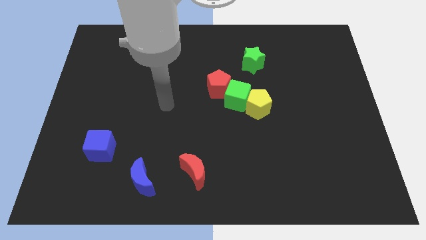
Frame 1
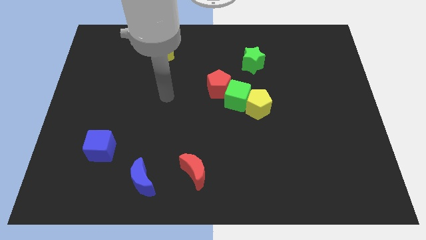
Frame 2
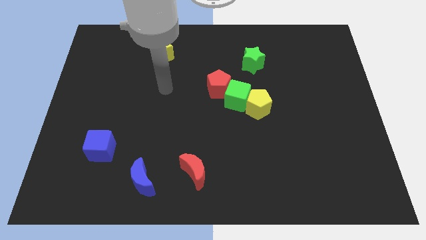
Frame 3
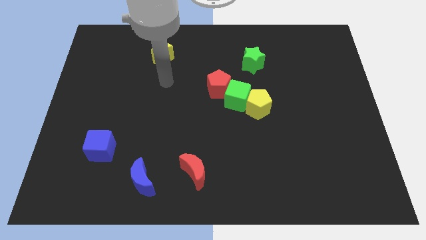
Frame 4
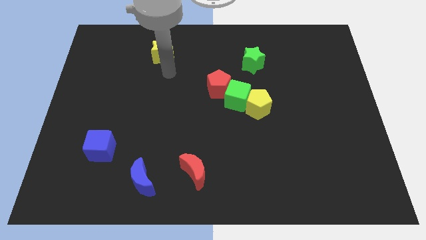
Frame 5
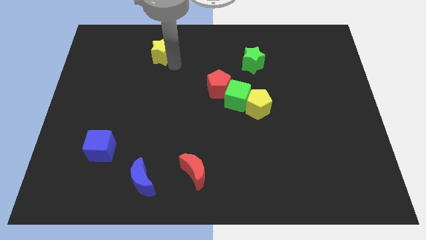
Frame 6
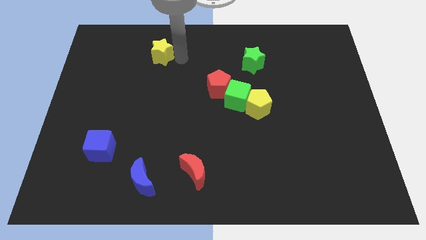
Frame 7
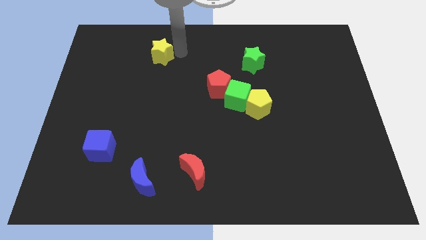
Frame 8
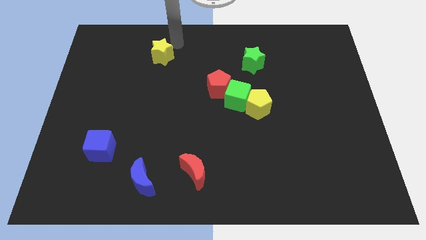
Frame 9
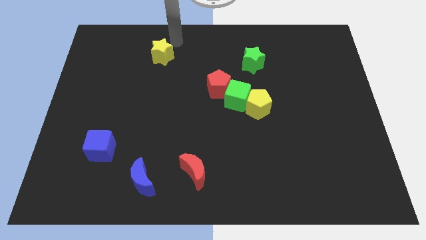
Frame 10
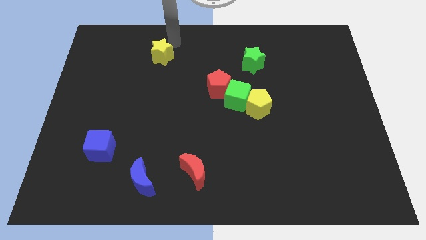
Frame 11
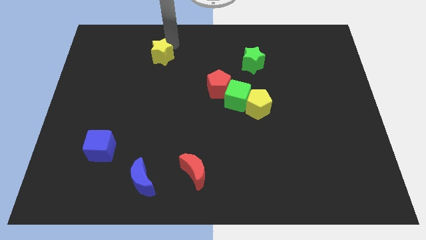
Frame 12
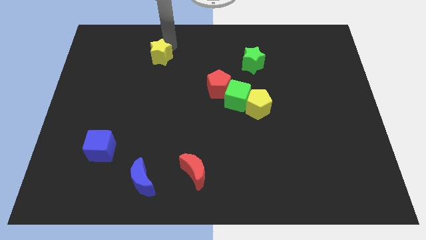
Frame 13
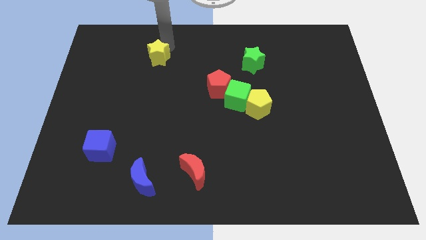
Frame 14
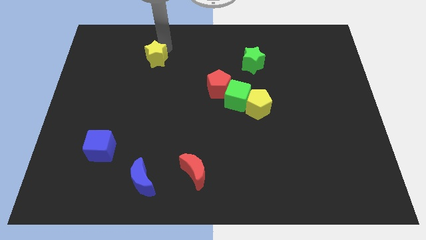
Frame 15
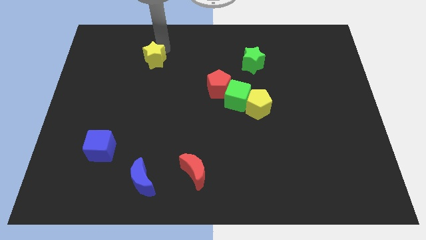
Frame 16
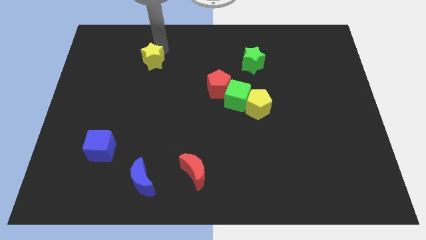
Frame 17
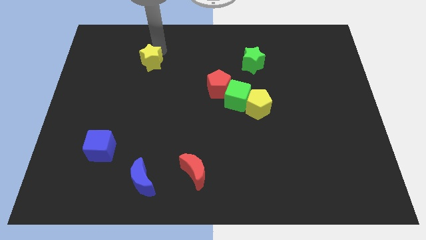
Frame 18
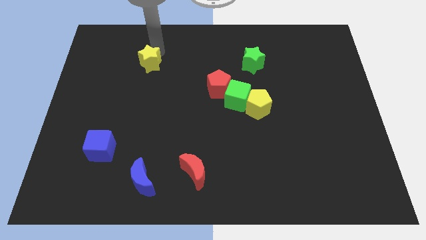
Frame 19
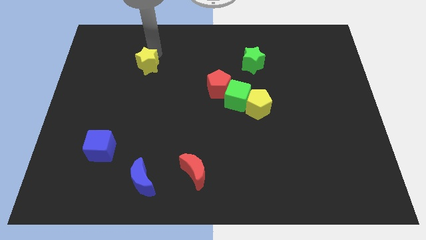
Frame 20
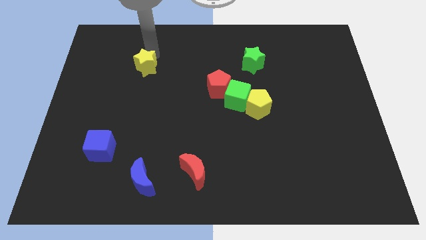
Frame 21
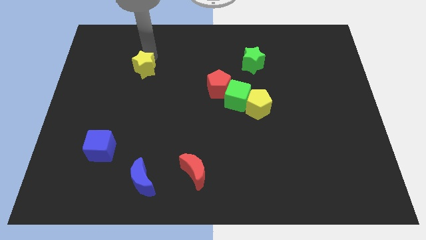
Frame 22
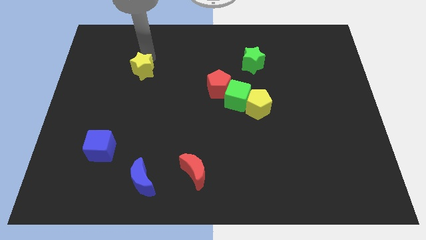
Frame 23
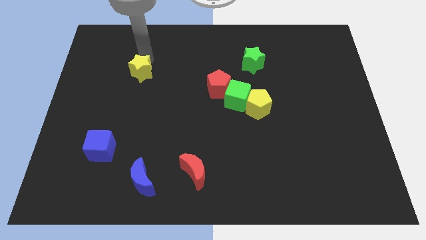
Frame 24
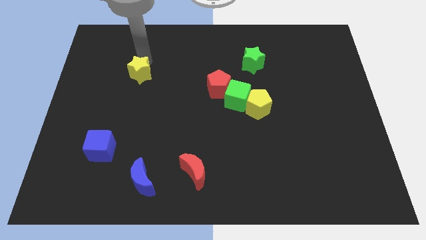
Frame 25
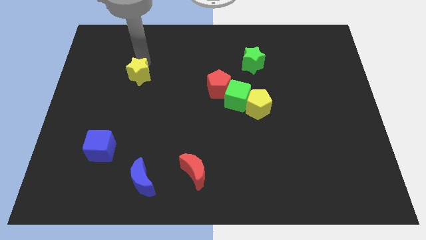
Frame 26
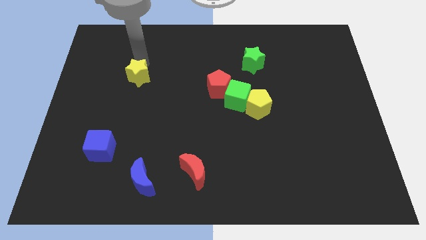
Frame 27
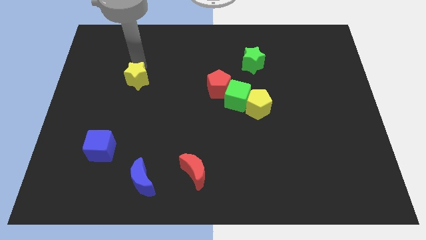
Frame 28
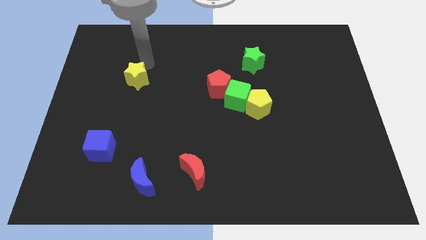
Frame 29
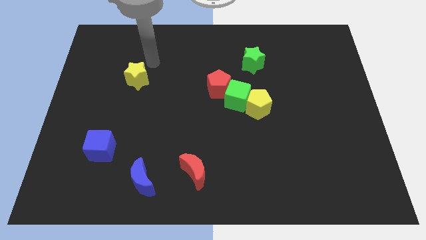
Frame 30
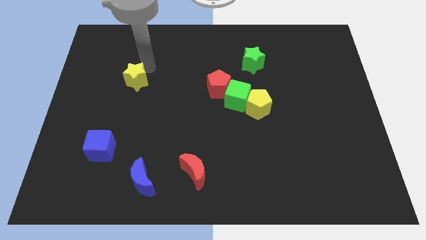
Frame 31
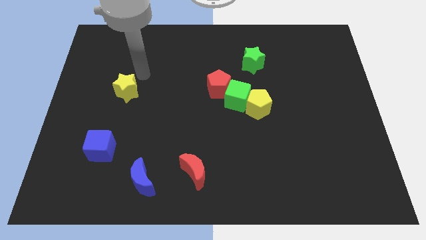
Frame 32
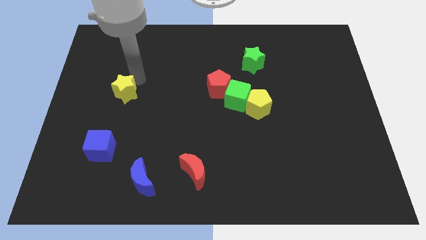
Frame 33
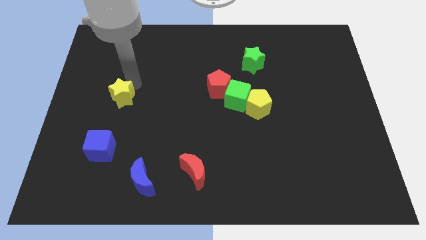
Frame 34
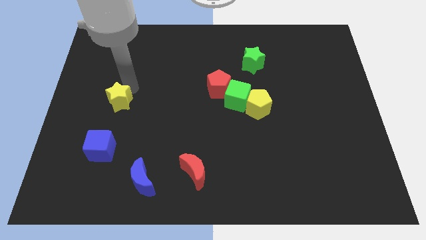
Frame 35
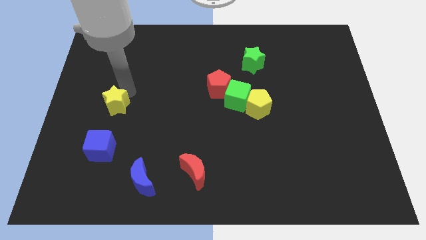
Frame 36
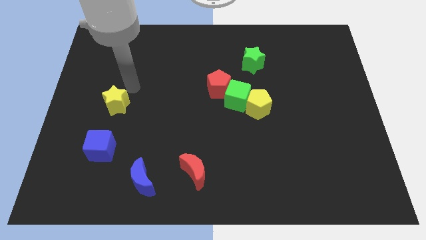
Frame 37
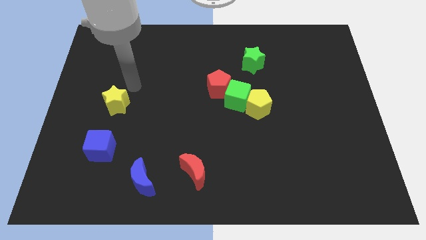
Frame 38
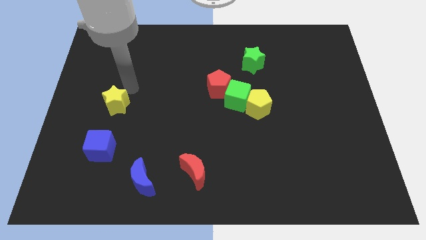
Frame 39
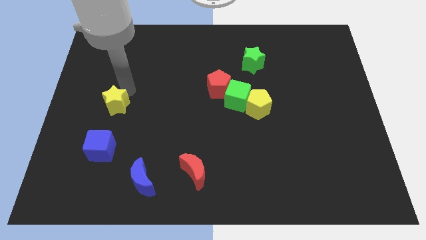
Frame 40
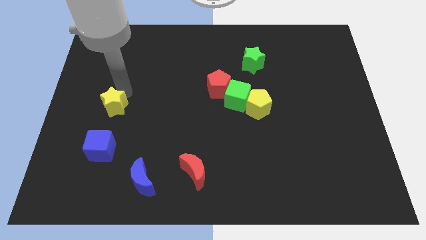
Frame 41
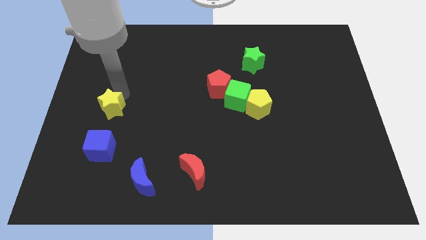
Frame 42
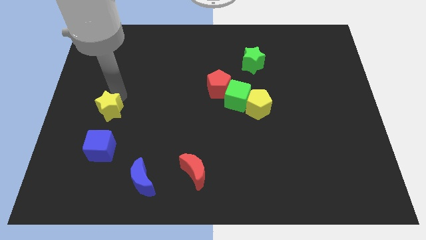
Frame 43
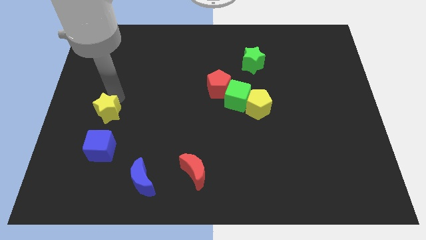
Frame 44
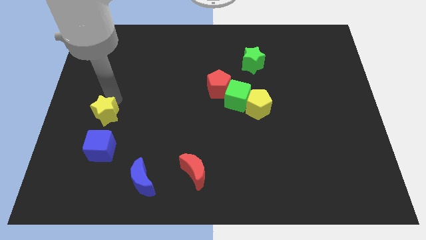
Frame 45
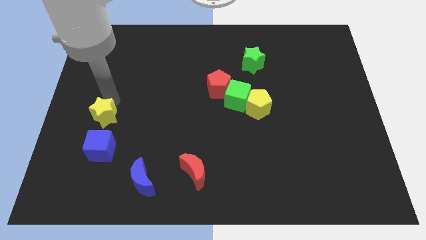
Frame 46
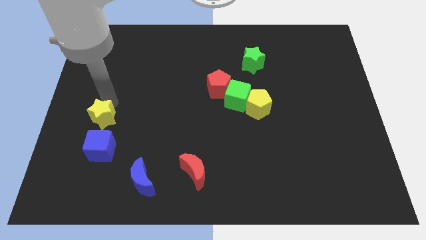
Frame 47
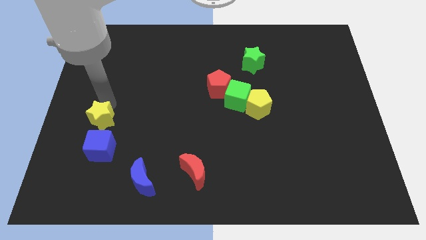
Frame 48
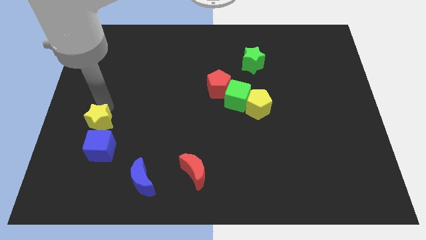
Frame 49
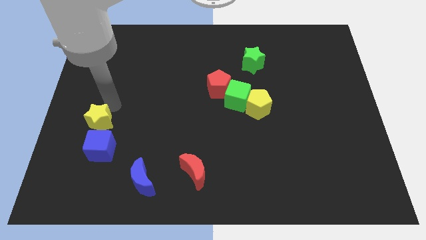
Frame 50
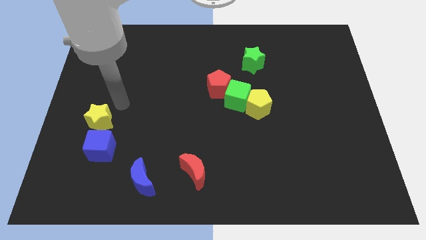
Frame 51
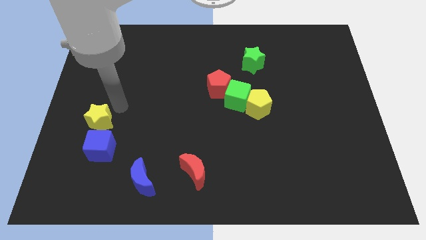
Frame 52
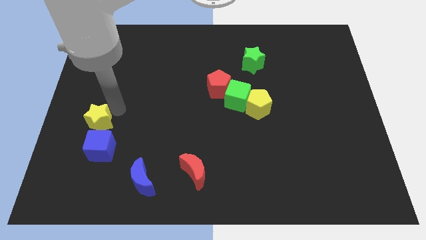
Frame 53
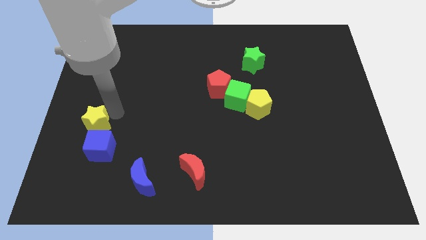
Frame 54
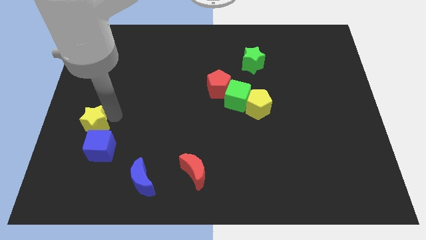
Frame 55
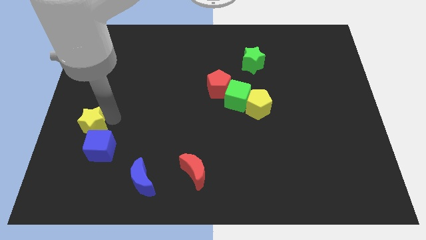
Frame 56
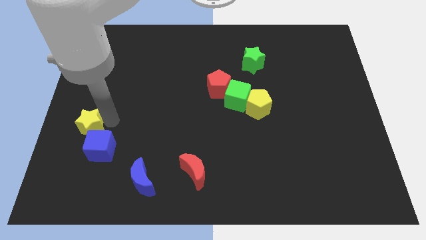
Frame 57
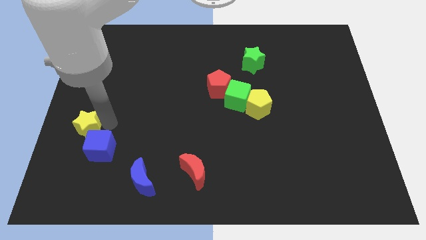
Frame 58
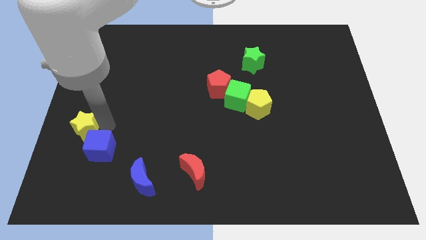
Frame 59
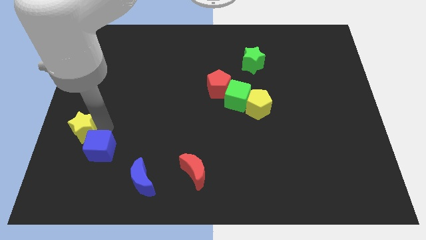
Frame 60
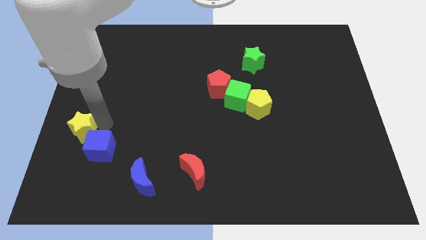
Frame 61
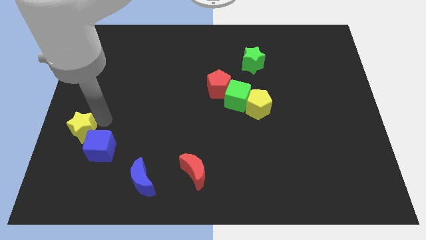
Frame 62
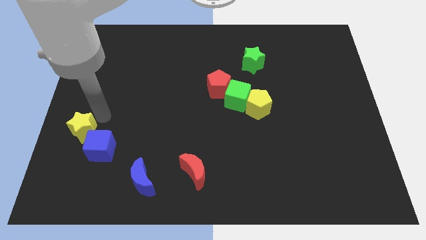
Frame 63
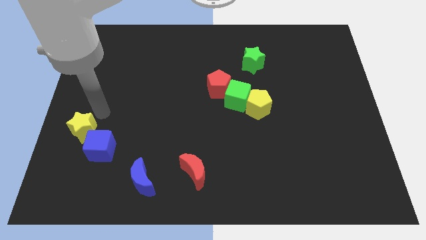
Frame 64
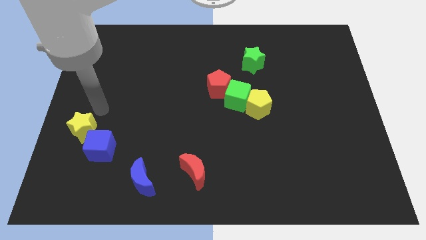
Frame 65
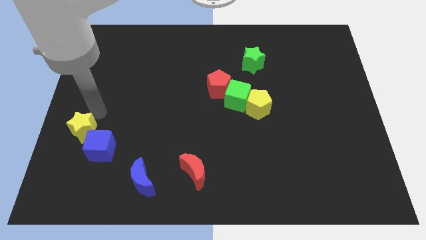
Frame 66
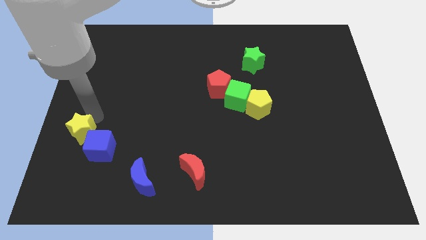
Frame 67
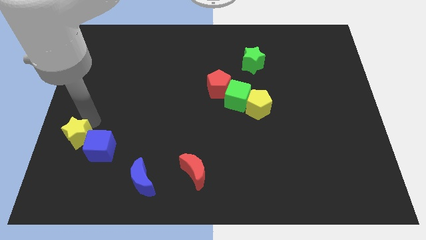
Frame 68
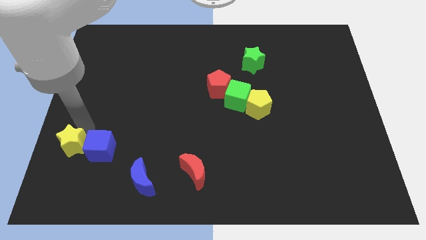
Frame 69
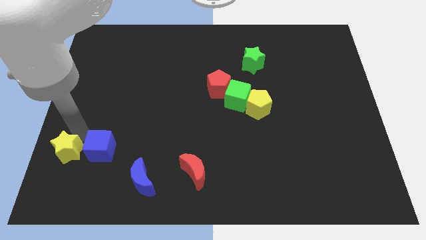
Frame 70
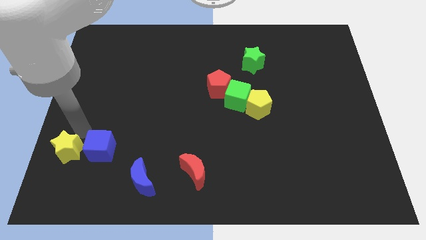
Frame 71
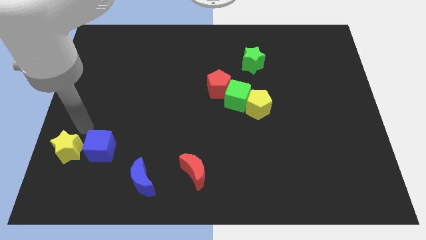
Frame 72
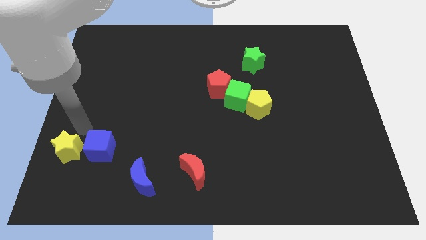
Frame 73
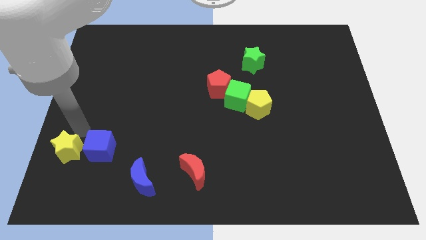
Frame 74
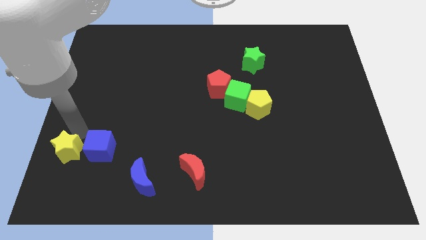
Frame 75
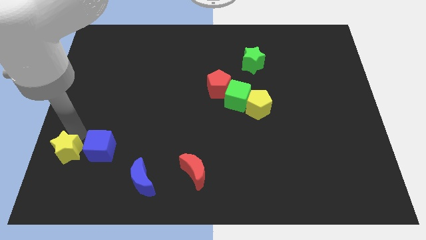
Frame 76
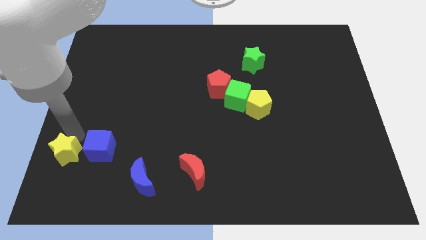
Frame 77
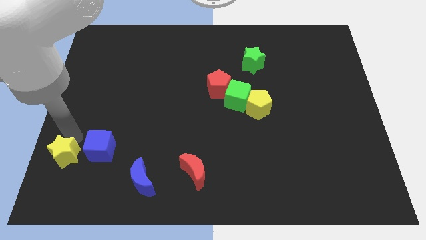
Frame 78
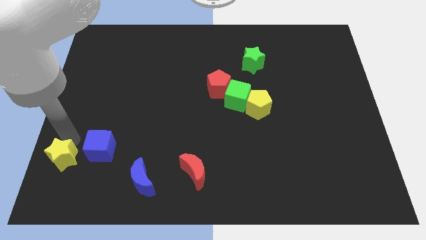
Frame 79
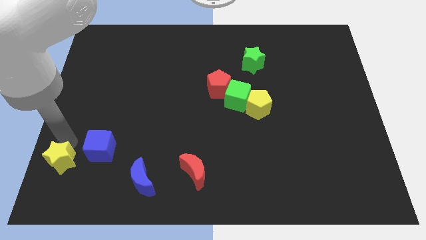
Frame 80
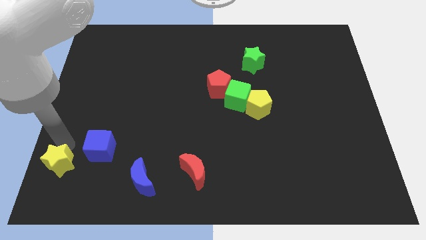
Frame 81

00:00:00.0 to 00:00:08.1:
move the yellow star to the bottom left of the board
